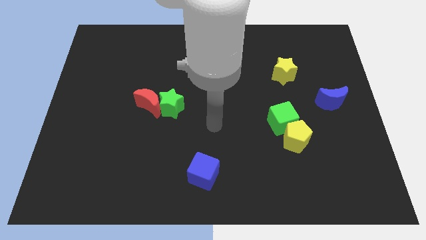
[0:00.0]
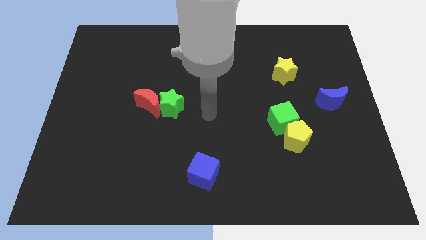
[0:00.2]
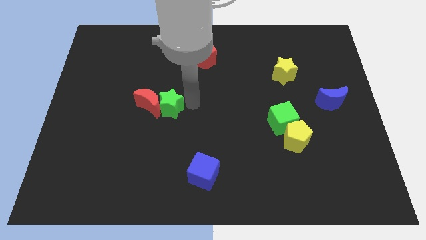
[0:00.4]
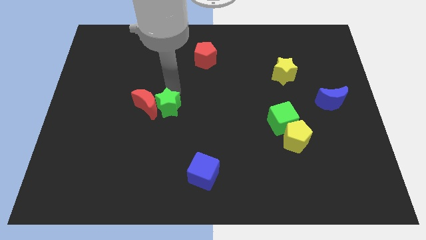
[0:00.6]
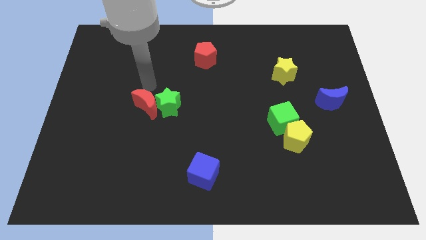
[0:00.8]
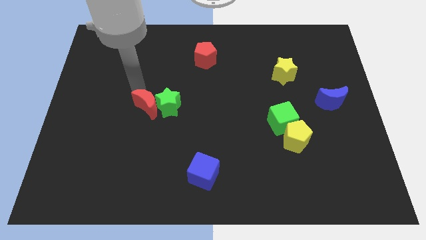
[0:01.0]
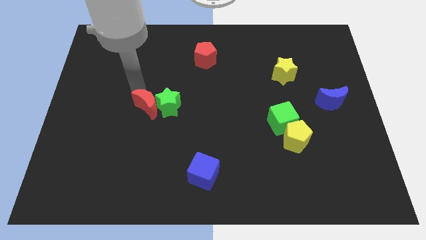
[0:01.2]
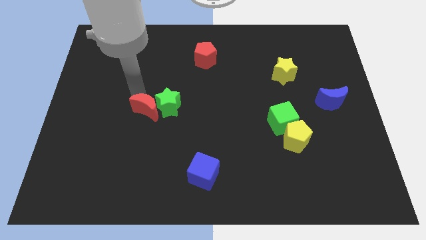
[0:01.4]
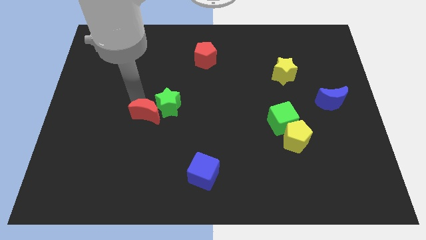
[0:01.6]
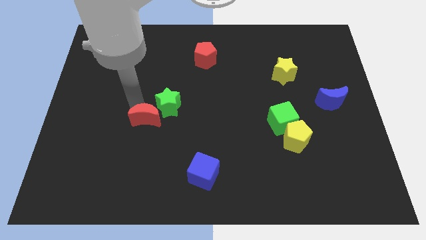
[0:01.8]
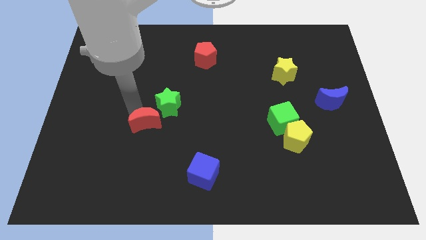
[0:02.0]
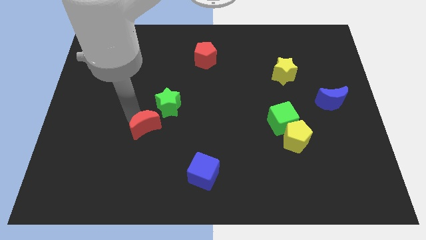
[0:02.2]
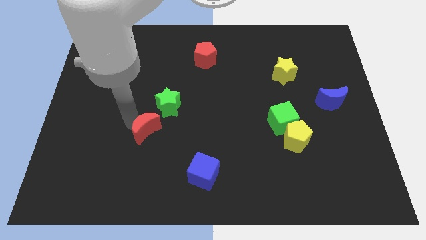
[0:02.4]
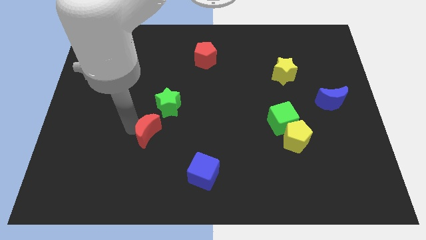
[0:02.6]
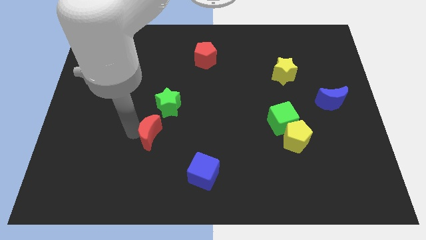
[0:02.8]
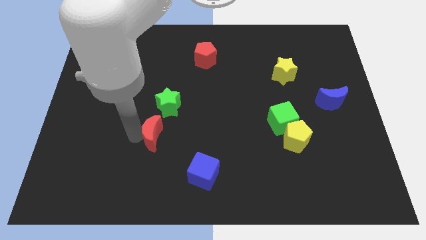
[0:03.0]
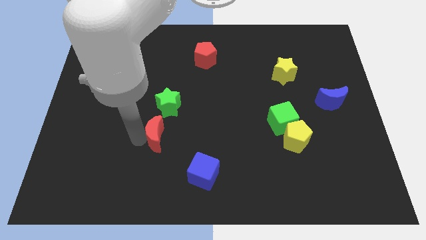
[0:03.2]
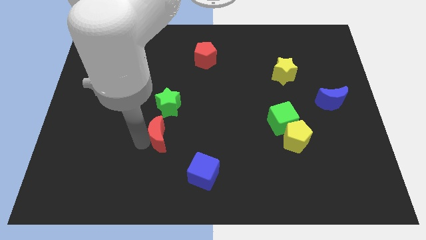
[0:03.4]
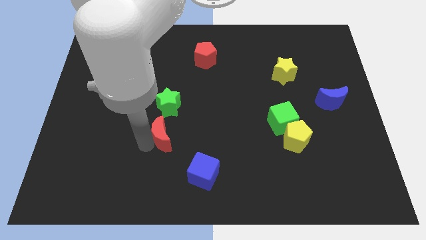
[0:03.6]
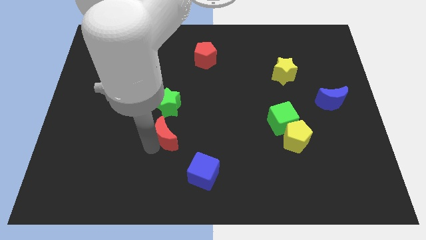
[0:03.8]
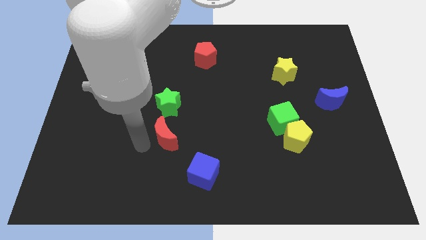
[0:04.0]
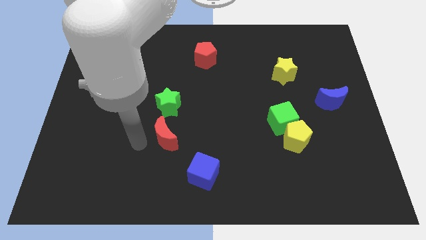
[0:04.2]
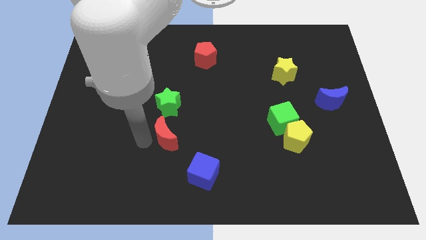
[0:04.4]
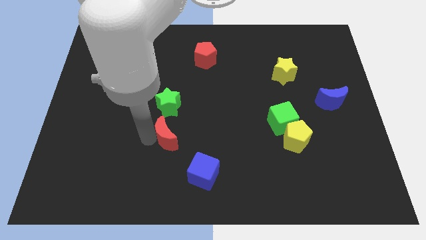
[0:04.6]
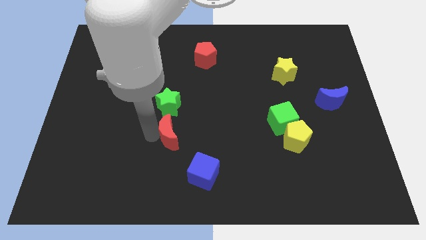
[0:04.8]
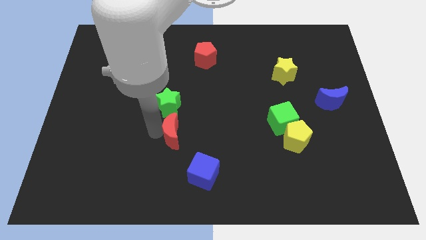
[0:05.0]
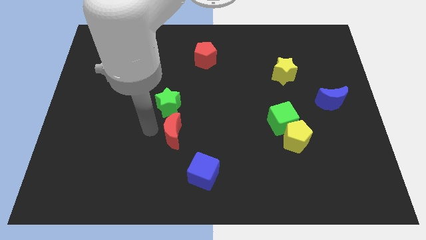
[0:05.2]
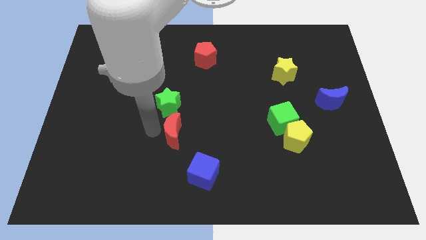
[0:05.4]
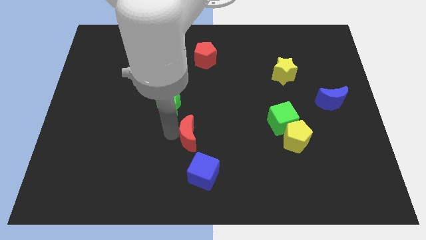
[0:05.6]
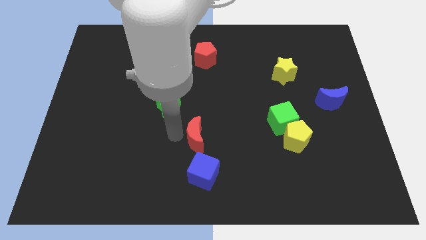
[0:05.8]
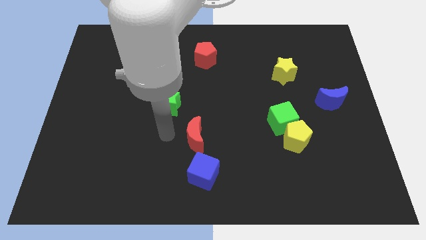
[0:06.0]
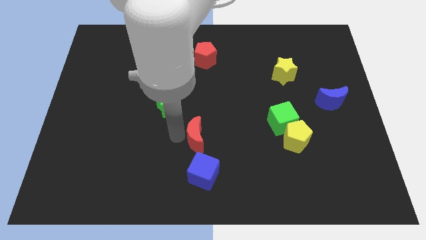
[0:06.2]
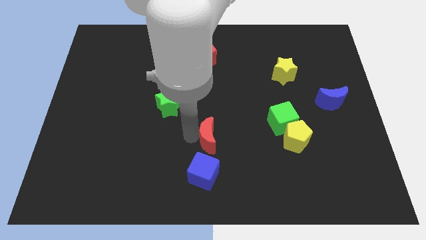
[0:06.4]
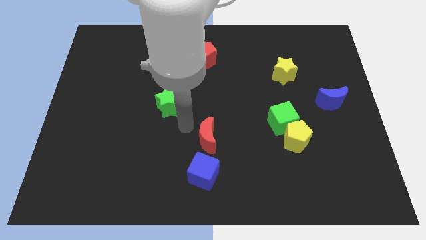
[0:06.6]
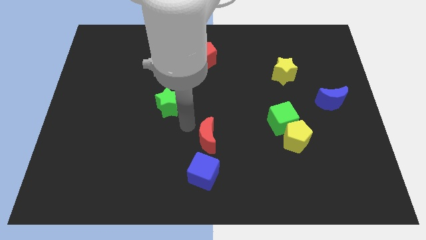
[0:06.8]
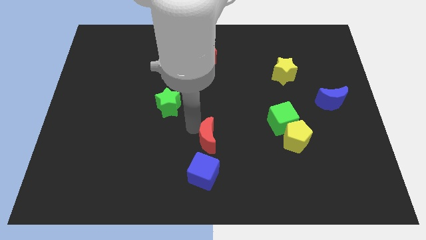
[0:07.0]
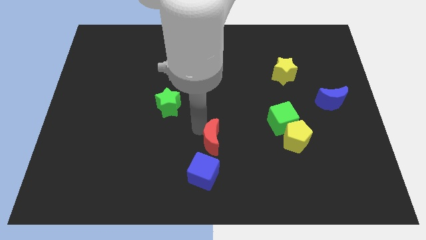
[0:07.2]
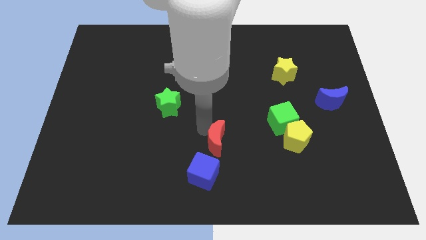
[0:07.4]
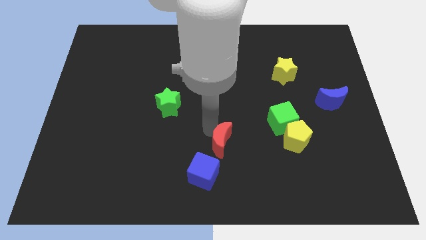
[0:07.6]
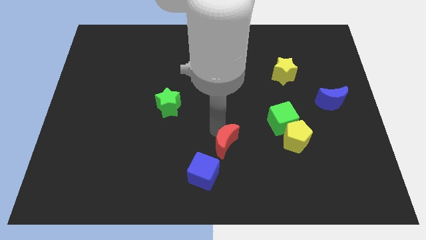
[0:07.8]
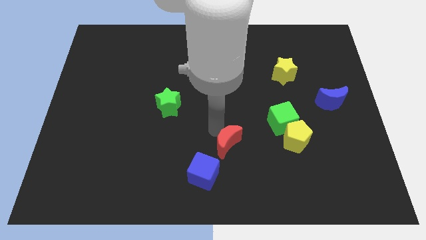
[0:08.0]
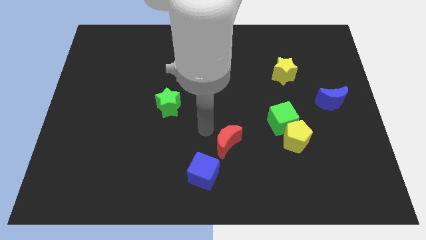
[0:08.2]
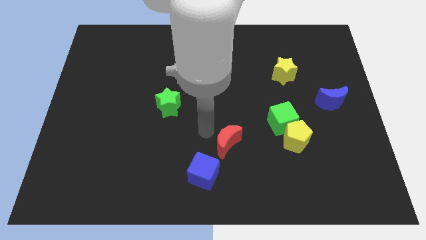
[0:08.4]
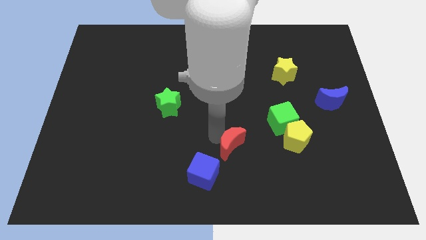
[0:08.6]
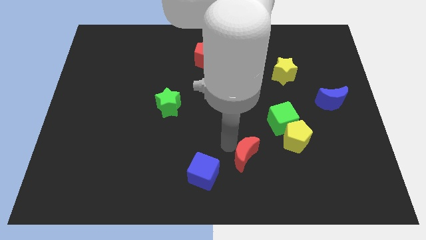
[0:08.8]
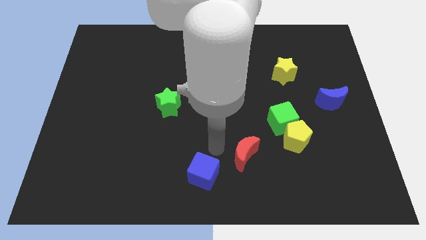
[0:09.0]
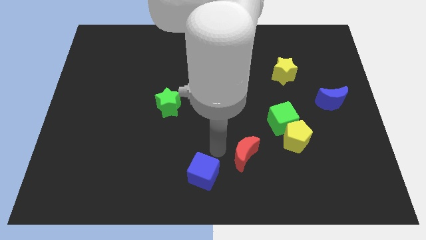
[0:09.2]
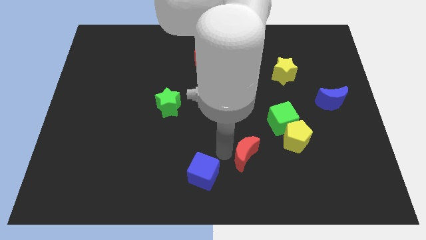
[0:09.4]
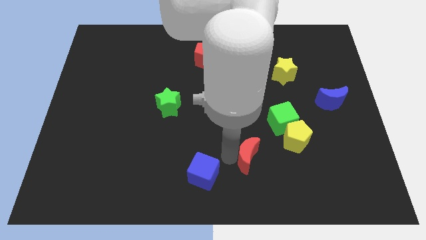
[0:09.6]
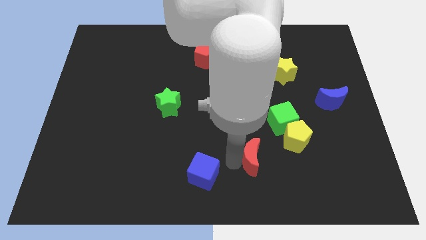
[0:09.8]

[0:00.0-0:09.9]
slide the red moon diagonally down and to the left of the yellow pentagon

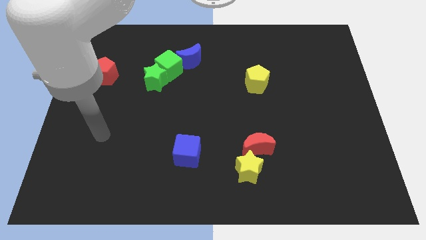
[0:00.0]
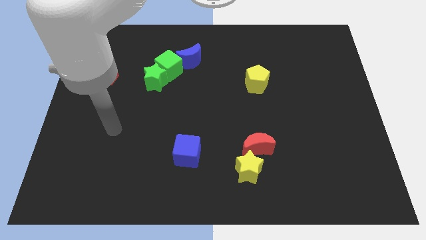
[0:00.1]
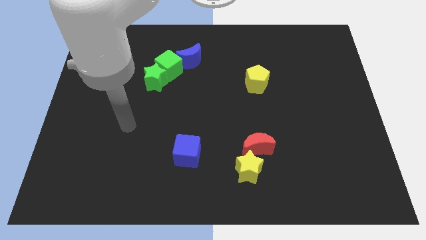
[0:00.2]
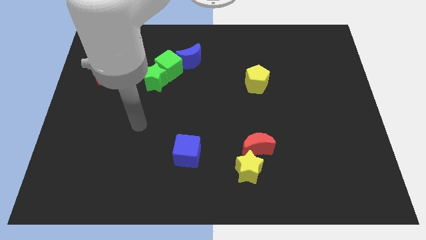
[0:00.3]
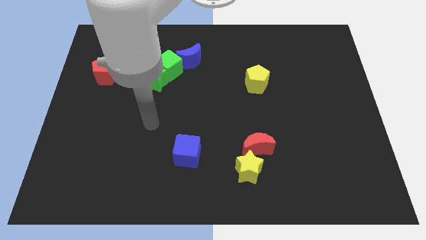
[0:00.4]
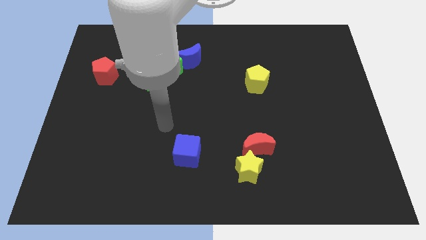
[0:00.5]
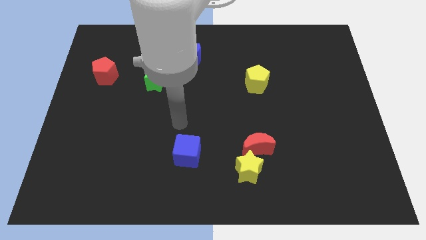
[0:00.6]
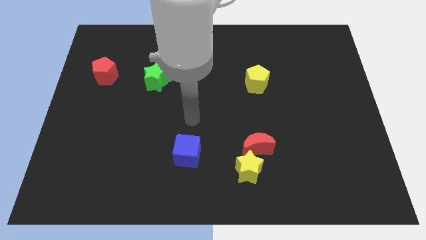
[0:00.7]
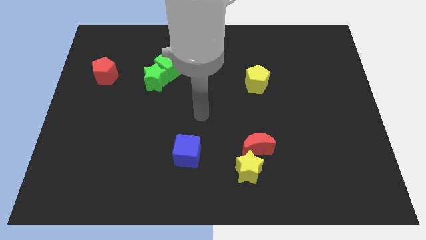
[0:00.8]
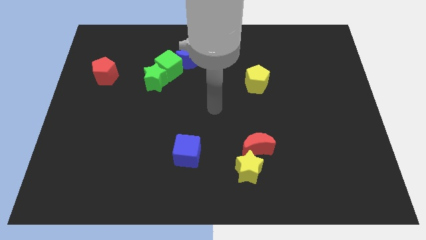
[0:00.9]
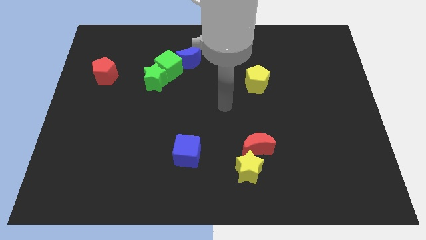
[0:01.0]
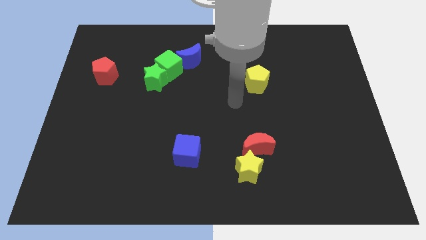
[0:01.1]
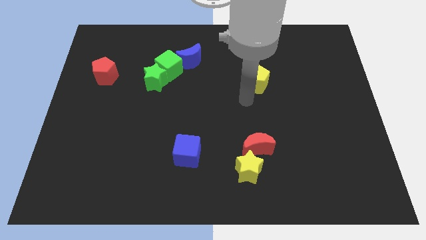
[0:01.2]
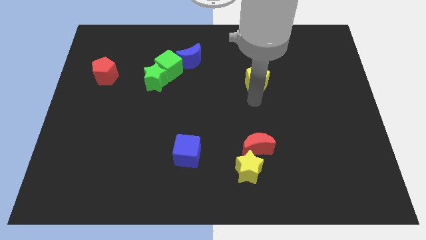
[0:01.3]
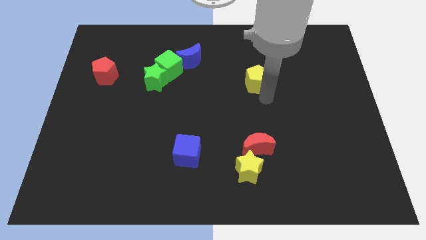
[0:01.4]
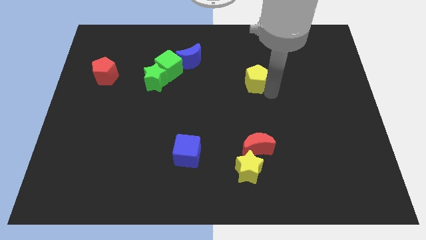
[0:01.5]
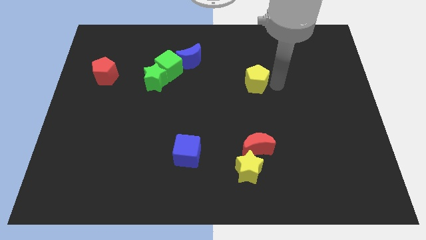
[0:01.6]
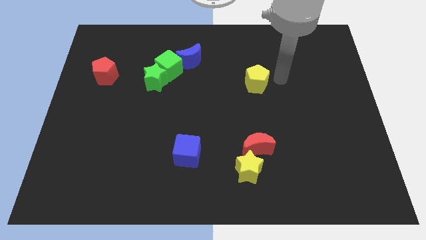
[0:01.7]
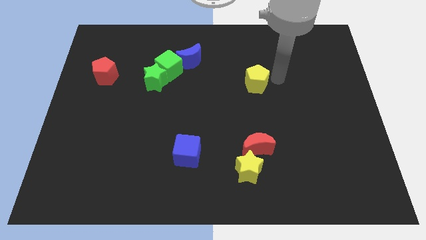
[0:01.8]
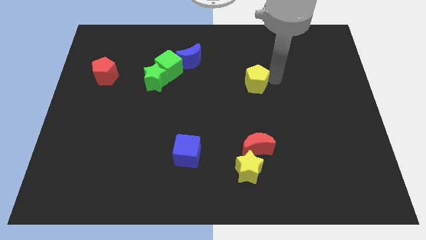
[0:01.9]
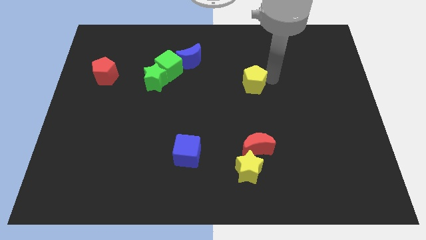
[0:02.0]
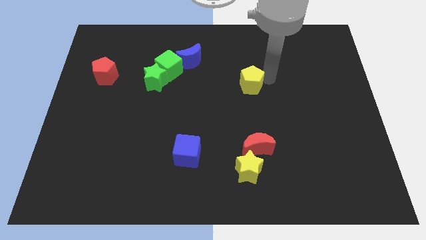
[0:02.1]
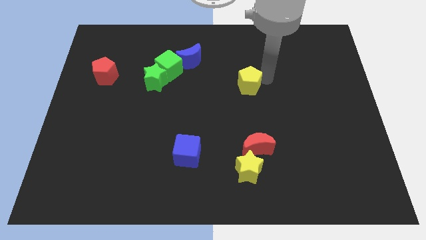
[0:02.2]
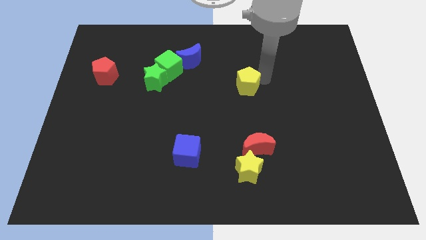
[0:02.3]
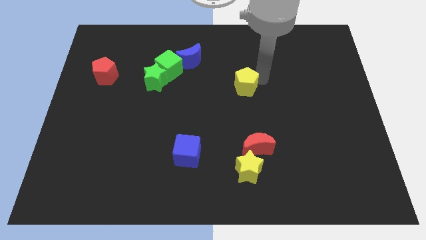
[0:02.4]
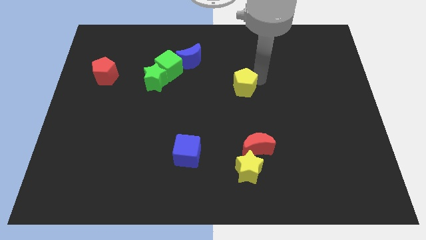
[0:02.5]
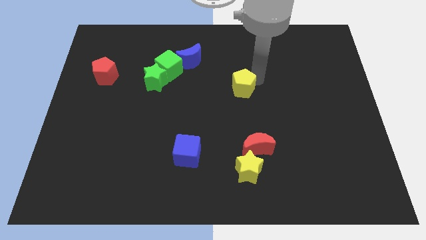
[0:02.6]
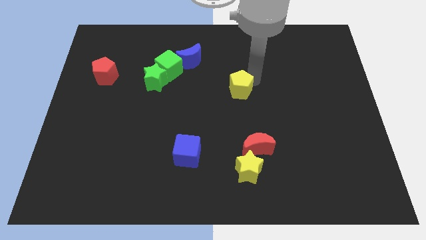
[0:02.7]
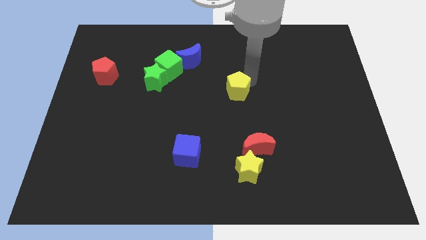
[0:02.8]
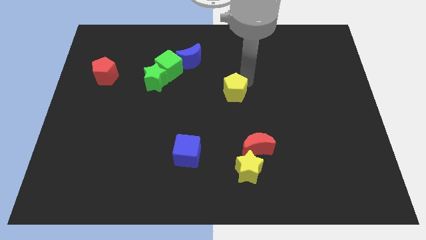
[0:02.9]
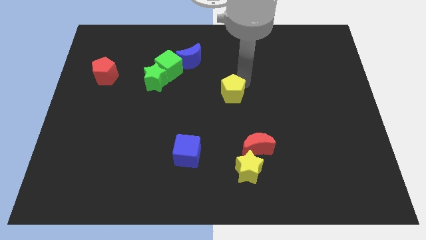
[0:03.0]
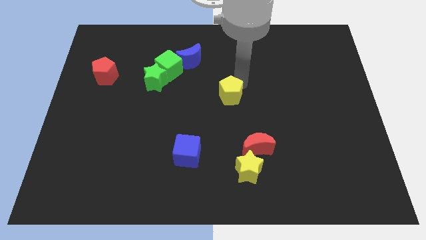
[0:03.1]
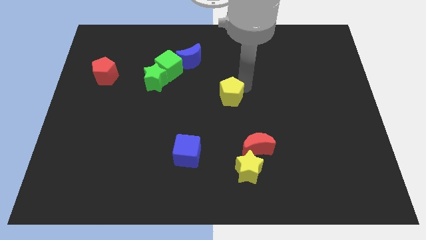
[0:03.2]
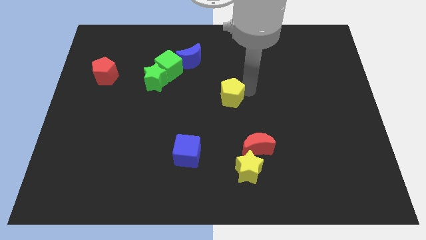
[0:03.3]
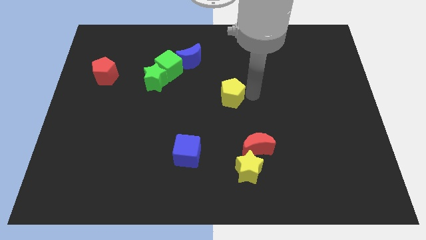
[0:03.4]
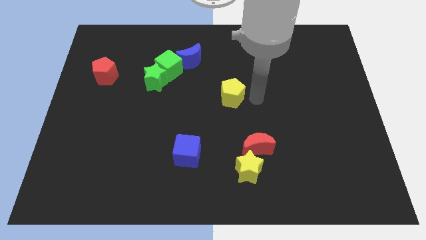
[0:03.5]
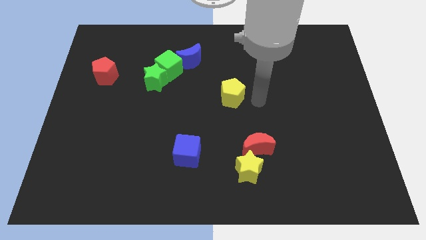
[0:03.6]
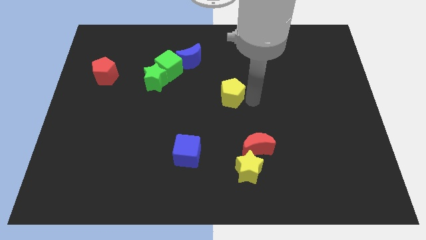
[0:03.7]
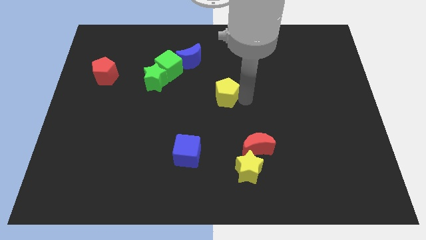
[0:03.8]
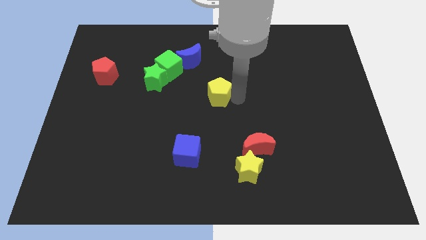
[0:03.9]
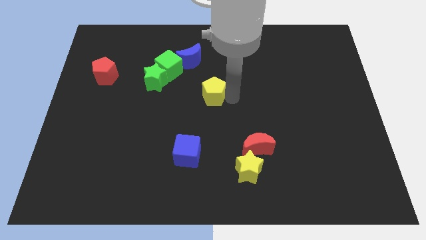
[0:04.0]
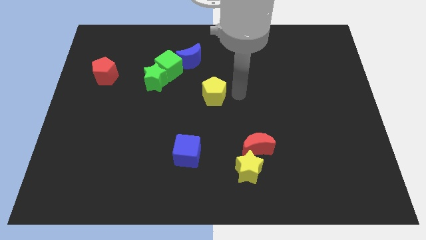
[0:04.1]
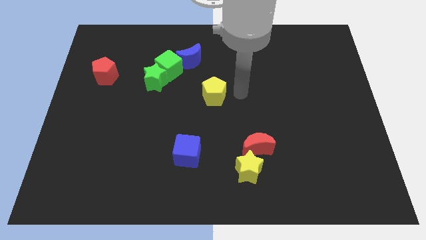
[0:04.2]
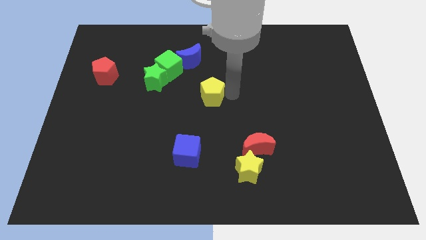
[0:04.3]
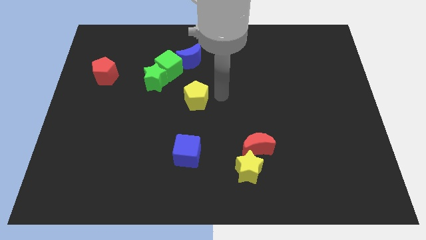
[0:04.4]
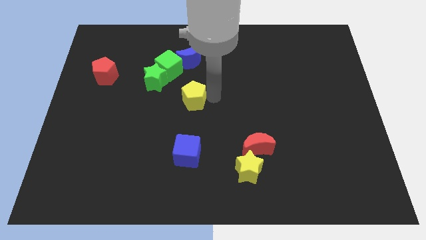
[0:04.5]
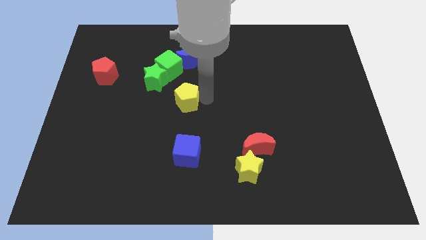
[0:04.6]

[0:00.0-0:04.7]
push the yellow pentagon to the bottom side of the green cube
